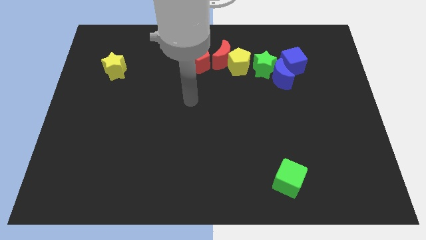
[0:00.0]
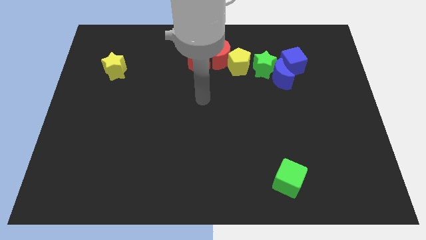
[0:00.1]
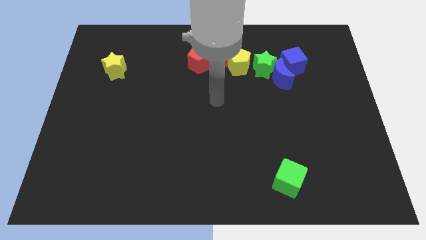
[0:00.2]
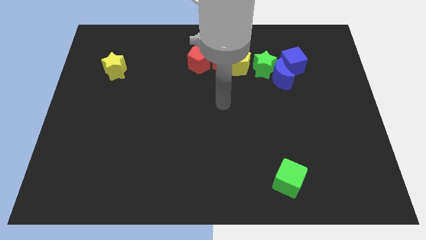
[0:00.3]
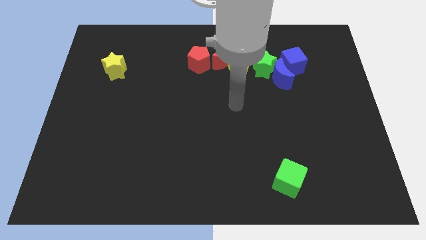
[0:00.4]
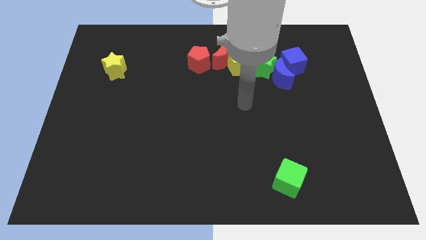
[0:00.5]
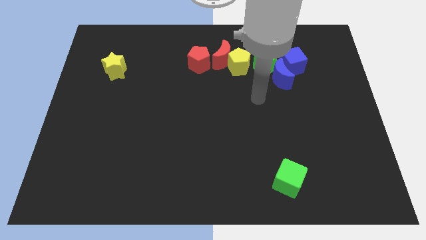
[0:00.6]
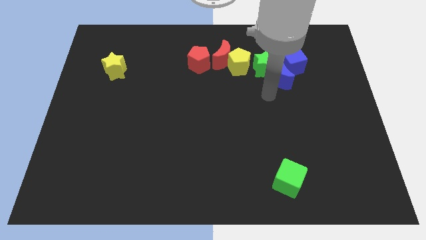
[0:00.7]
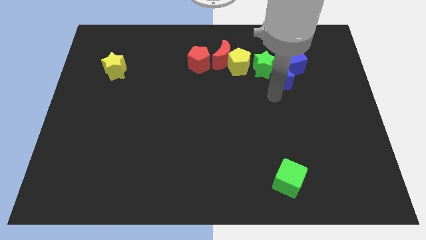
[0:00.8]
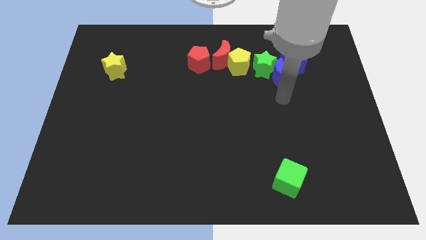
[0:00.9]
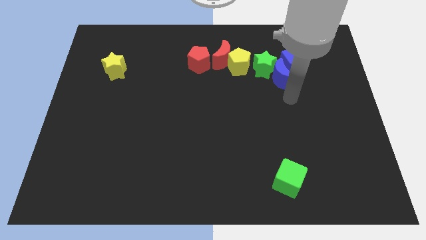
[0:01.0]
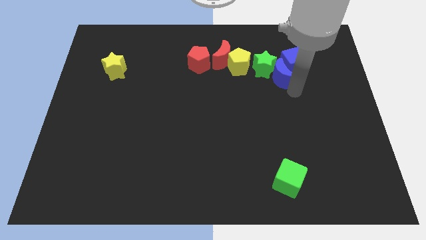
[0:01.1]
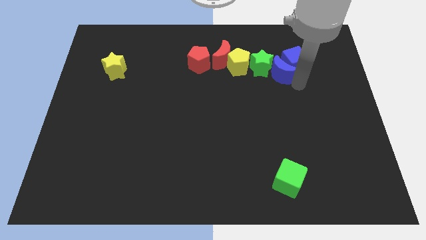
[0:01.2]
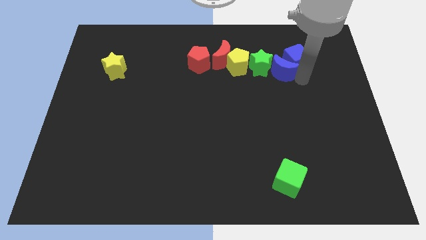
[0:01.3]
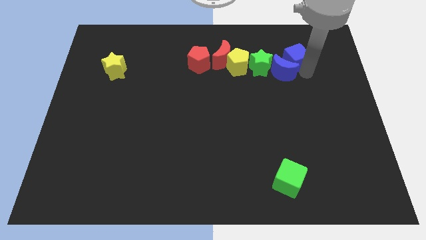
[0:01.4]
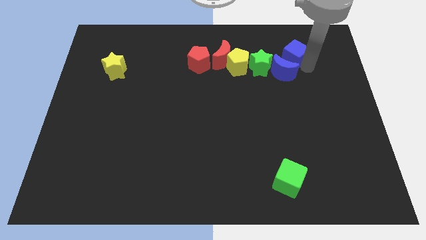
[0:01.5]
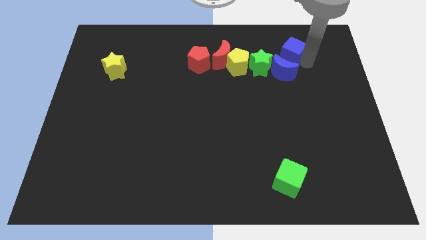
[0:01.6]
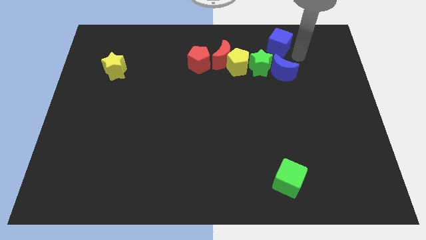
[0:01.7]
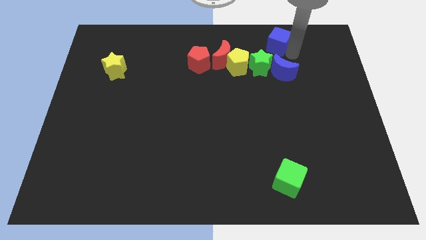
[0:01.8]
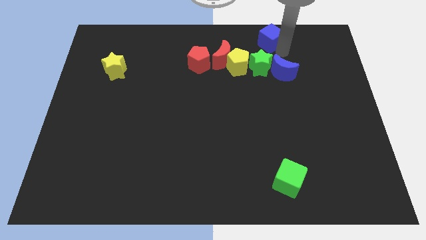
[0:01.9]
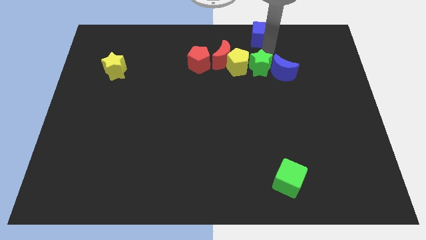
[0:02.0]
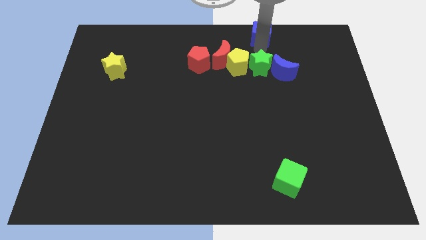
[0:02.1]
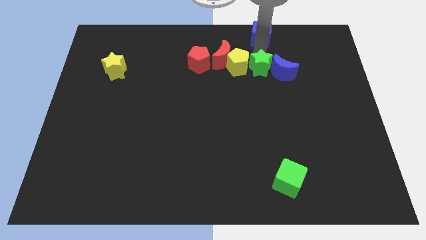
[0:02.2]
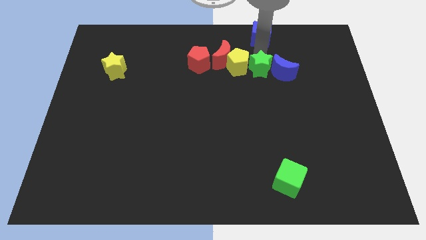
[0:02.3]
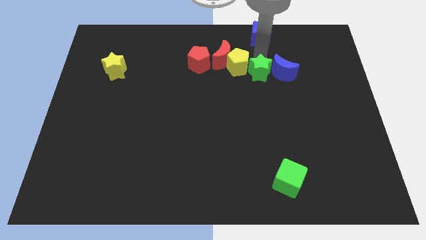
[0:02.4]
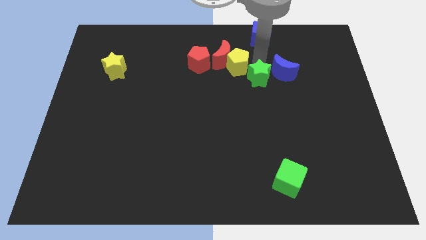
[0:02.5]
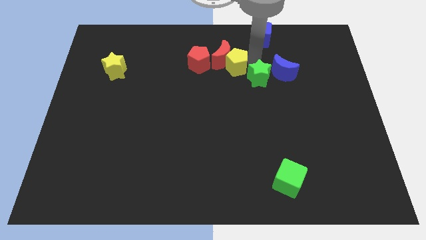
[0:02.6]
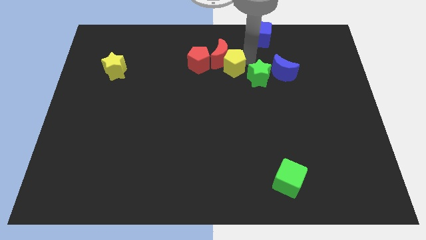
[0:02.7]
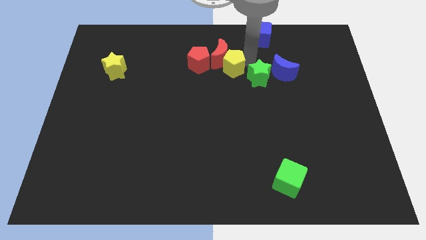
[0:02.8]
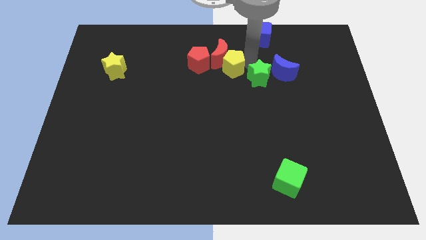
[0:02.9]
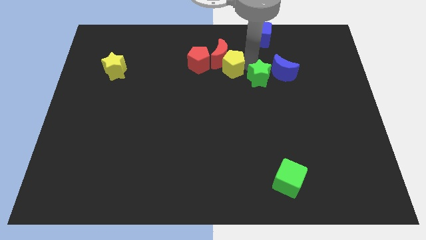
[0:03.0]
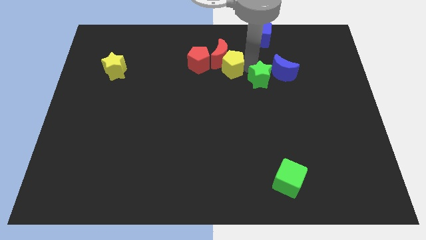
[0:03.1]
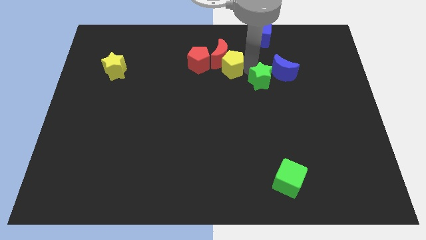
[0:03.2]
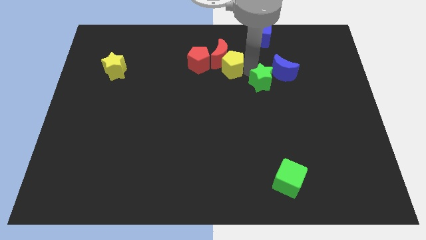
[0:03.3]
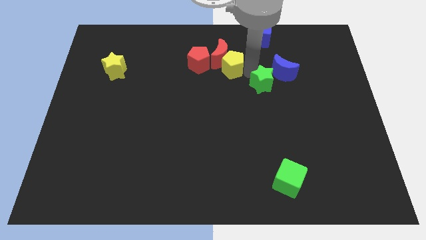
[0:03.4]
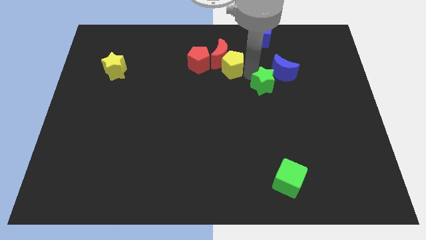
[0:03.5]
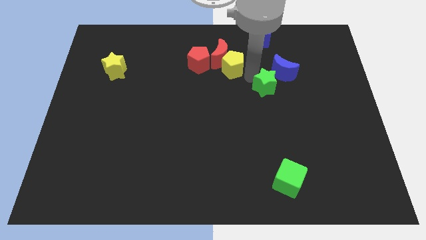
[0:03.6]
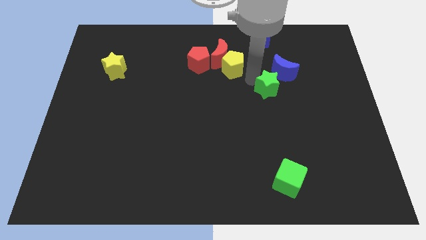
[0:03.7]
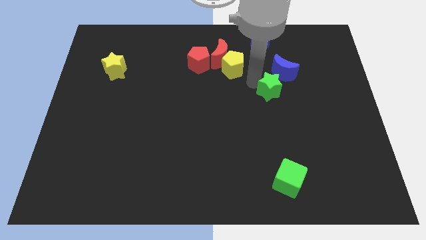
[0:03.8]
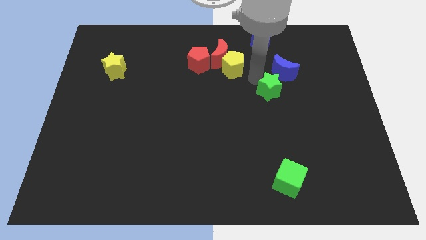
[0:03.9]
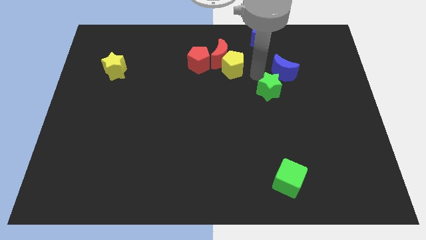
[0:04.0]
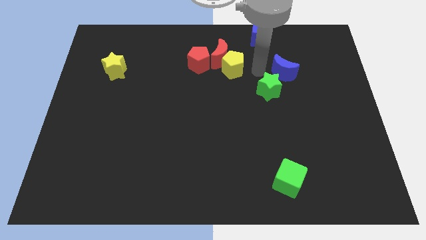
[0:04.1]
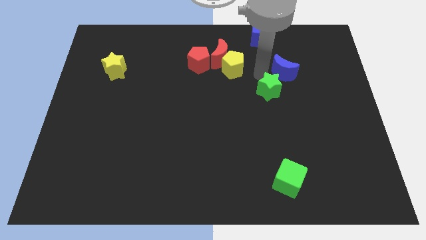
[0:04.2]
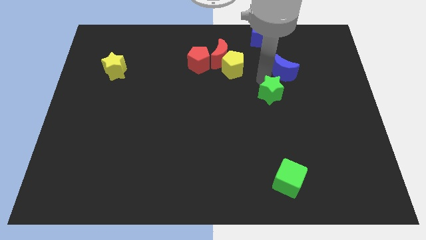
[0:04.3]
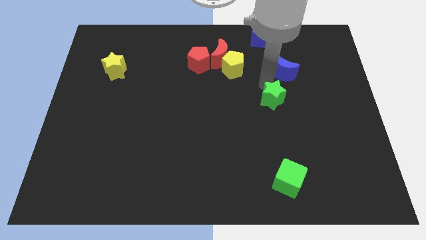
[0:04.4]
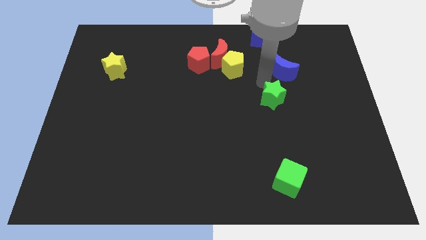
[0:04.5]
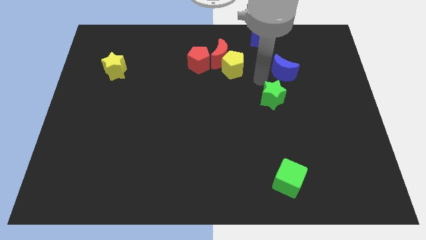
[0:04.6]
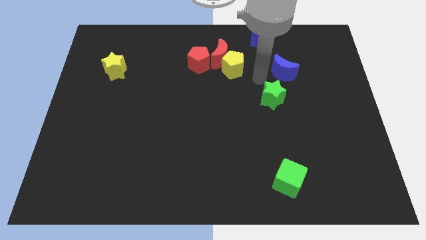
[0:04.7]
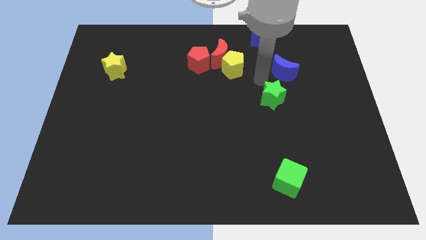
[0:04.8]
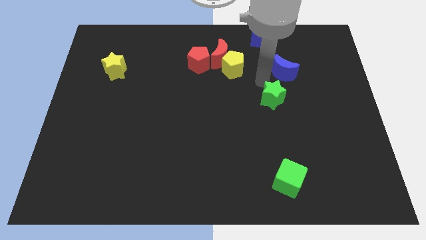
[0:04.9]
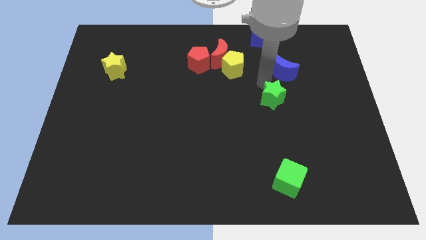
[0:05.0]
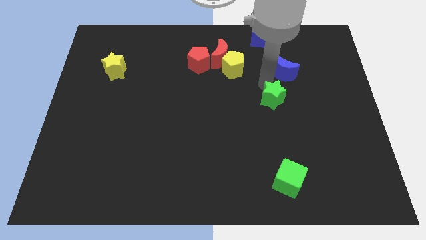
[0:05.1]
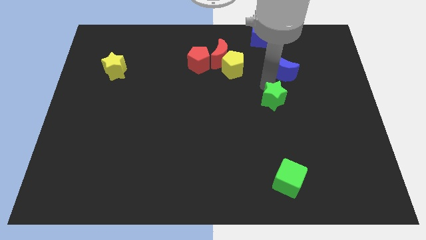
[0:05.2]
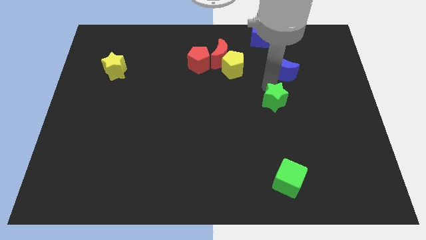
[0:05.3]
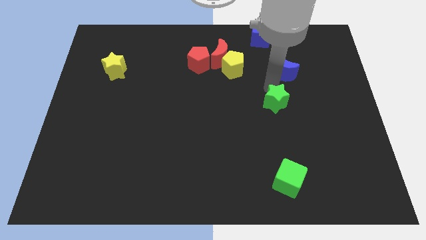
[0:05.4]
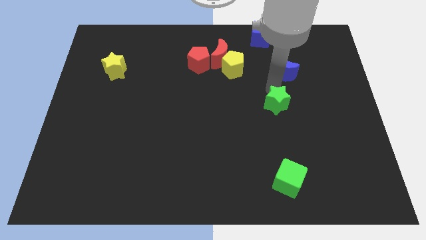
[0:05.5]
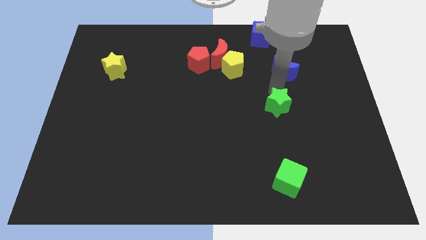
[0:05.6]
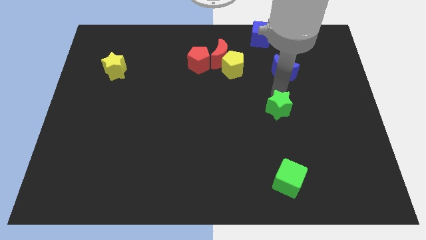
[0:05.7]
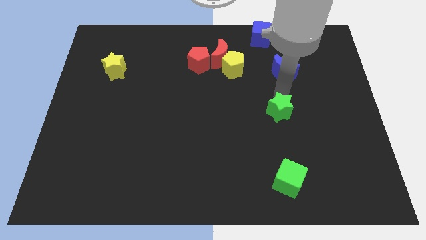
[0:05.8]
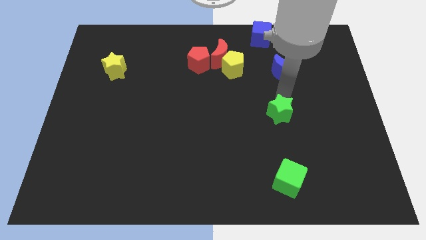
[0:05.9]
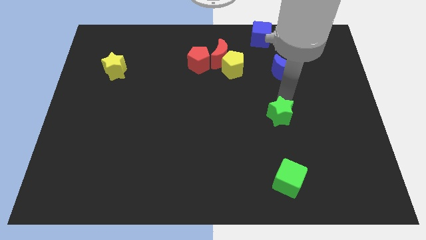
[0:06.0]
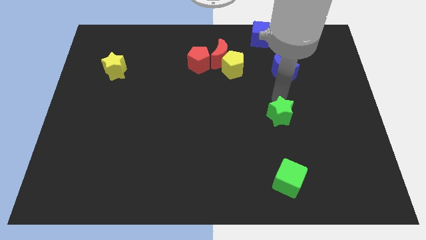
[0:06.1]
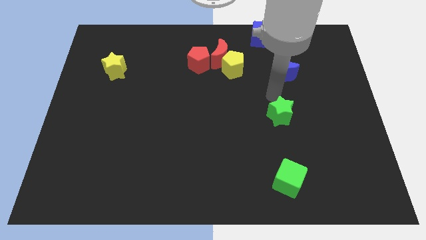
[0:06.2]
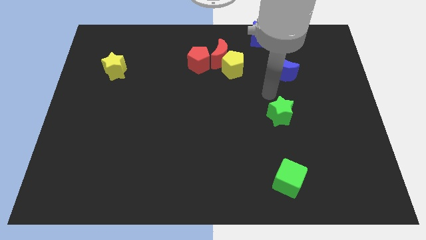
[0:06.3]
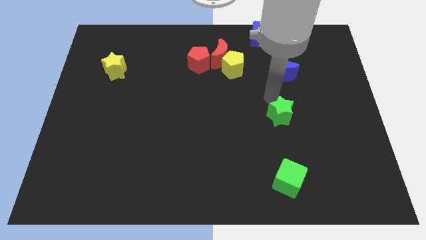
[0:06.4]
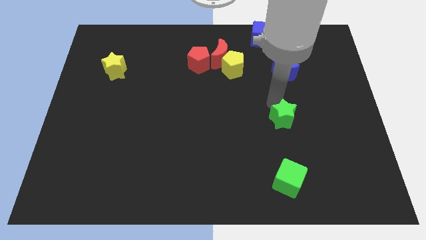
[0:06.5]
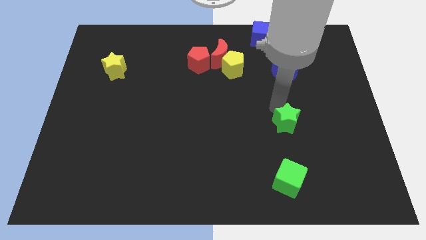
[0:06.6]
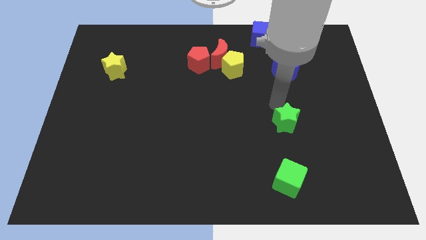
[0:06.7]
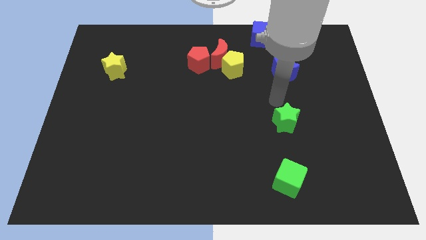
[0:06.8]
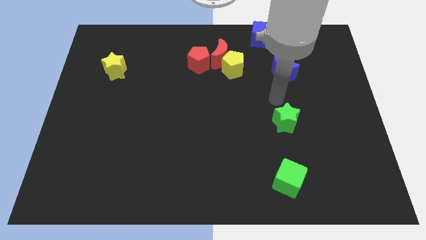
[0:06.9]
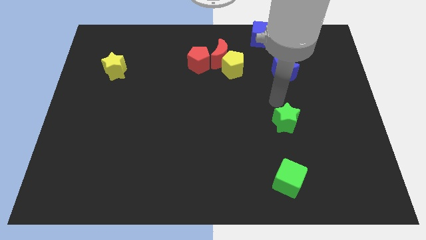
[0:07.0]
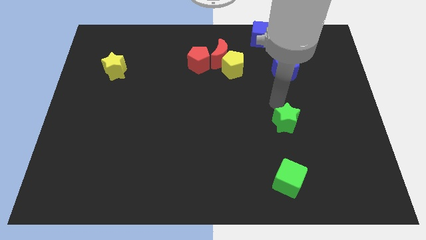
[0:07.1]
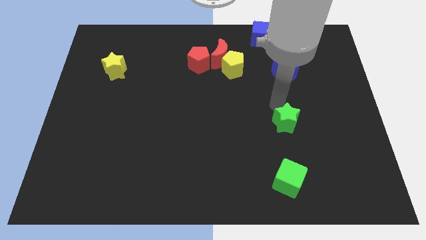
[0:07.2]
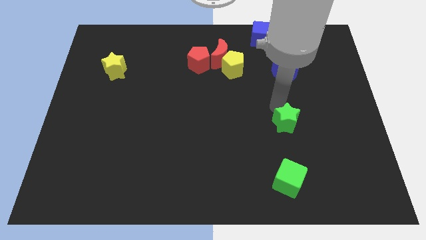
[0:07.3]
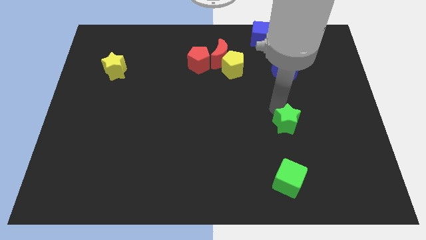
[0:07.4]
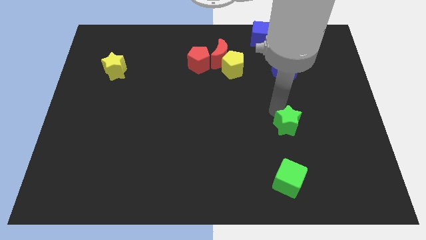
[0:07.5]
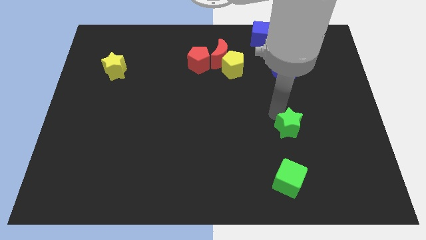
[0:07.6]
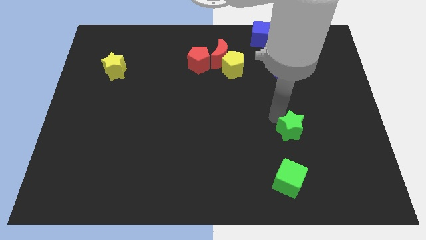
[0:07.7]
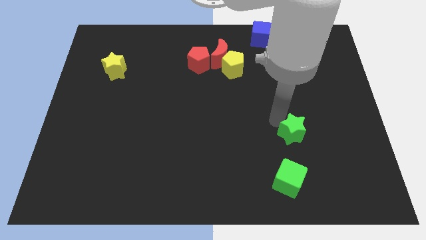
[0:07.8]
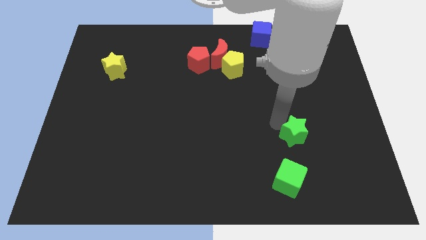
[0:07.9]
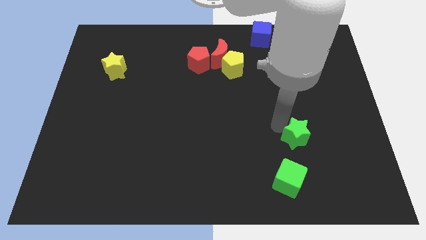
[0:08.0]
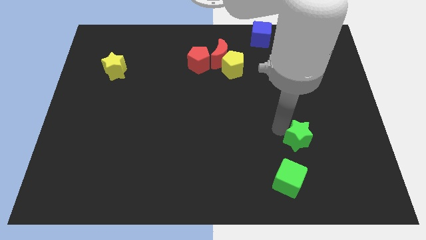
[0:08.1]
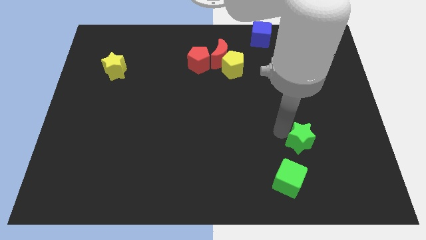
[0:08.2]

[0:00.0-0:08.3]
push the green star diagonally up and to the right of the green cube
